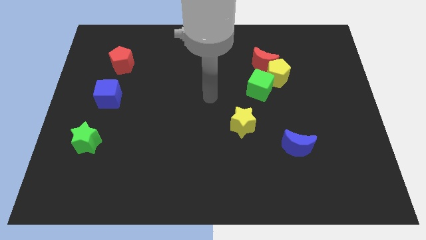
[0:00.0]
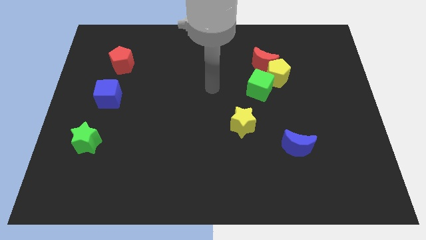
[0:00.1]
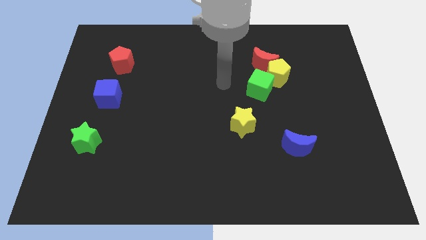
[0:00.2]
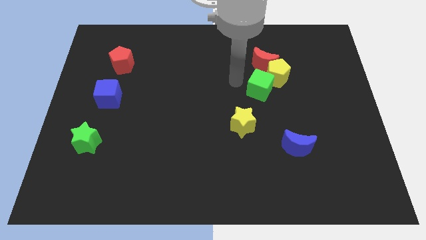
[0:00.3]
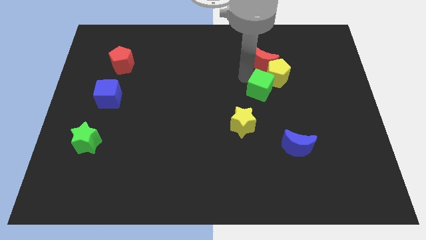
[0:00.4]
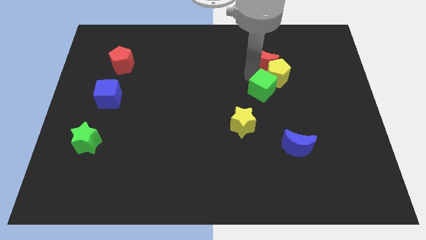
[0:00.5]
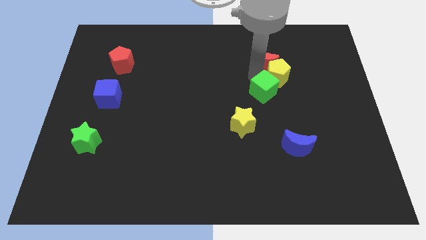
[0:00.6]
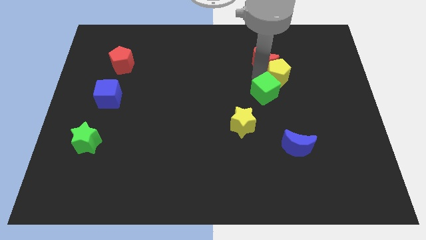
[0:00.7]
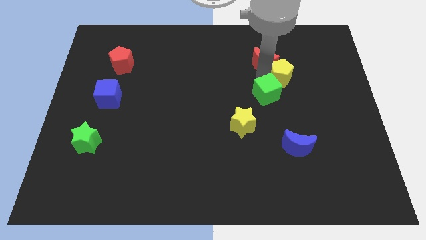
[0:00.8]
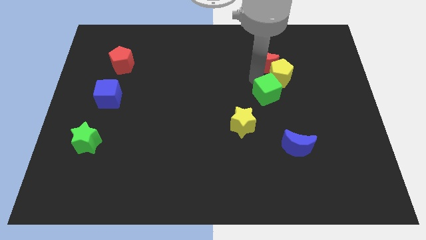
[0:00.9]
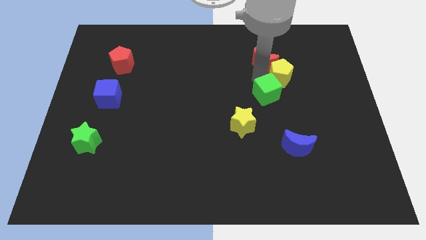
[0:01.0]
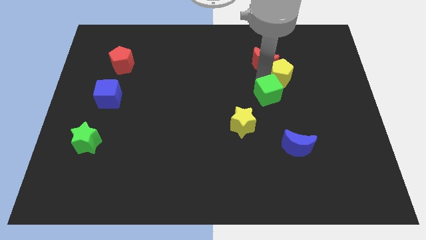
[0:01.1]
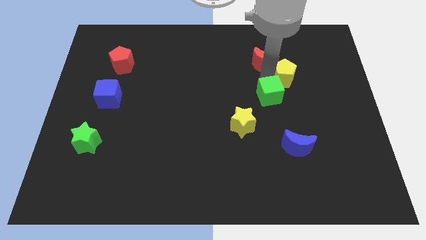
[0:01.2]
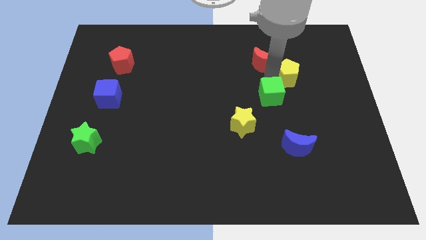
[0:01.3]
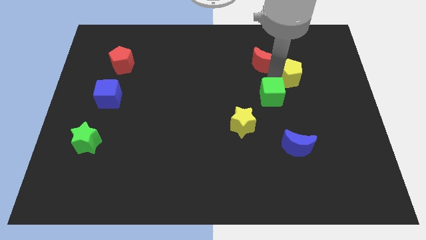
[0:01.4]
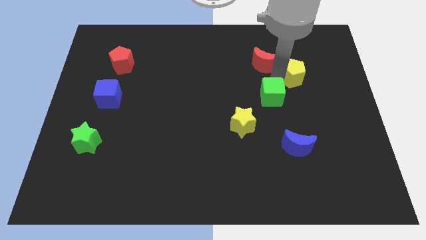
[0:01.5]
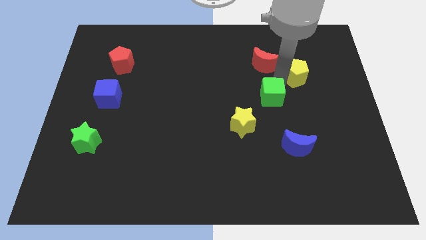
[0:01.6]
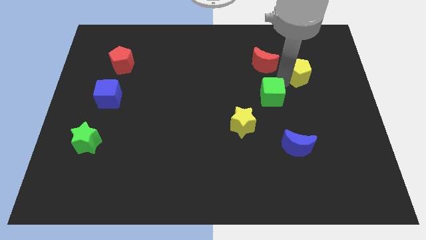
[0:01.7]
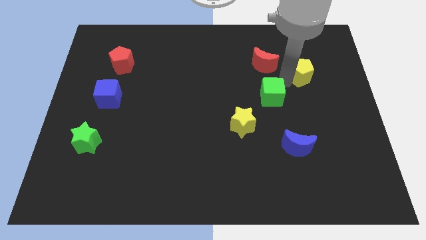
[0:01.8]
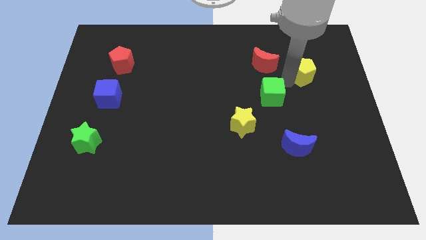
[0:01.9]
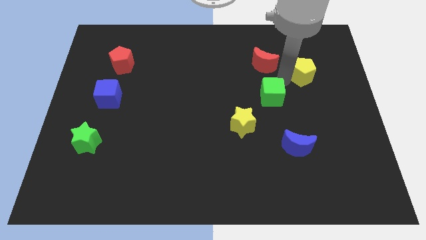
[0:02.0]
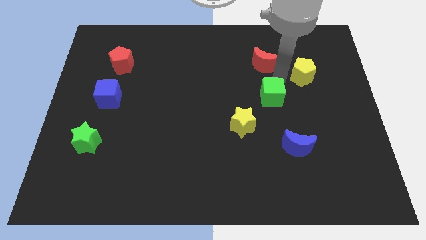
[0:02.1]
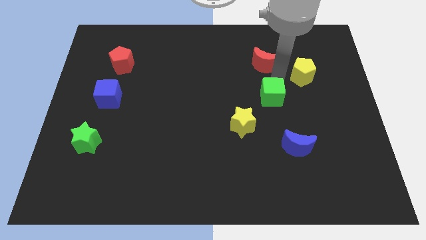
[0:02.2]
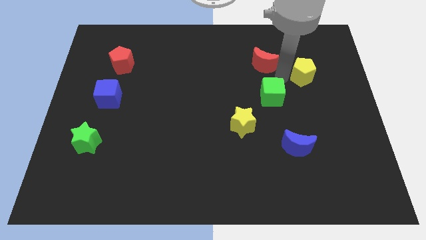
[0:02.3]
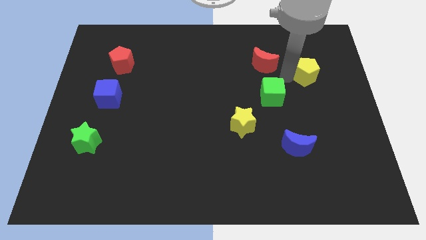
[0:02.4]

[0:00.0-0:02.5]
separate the yellow pentagon from the red moon and green cube

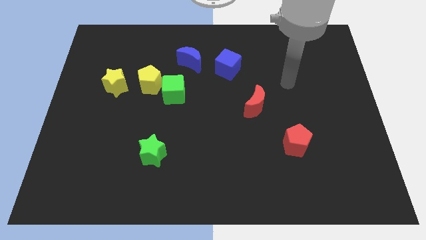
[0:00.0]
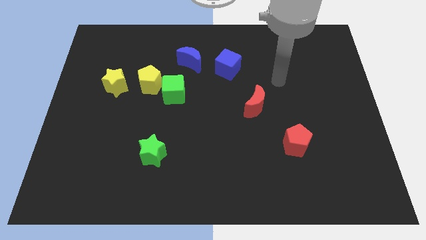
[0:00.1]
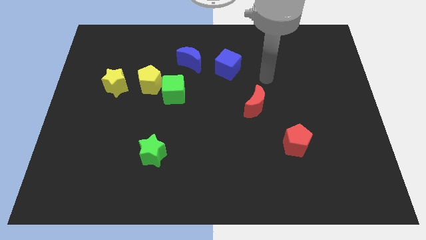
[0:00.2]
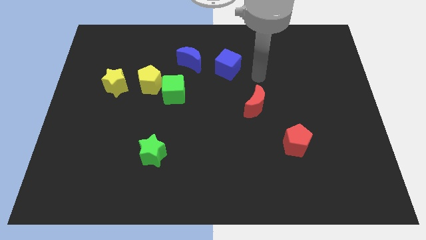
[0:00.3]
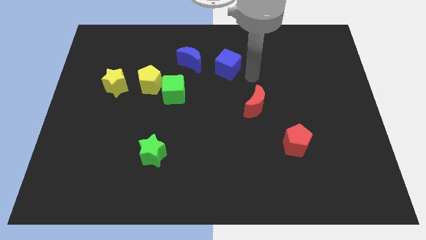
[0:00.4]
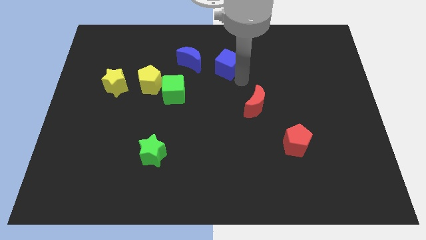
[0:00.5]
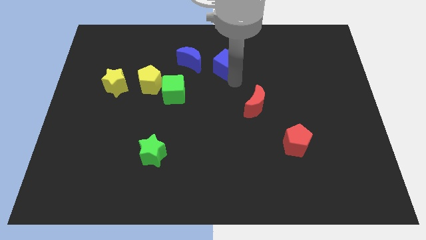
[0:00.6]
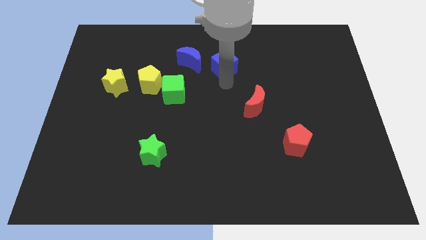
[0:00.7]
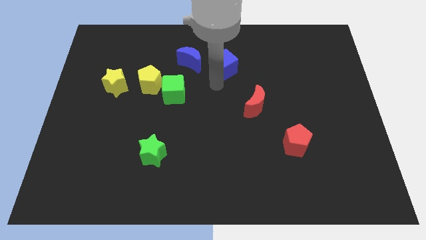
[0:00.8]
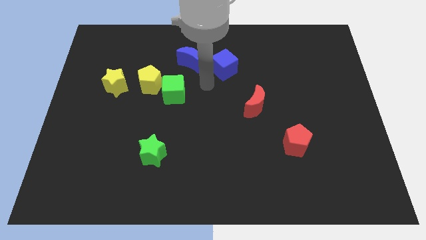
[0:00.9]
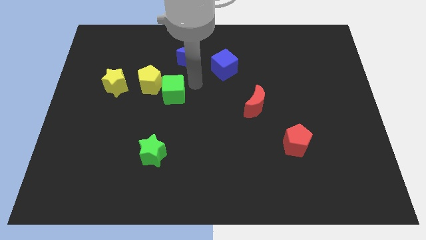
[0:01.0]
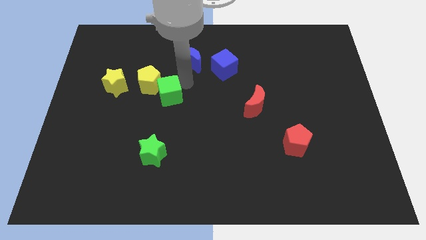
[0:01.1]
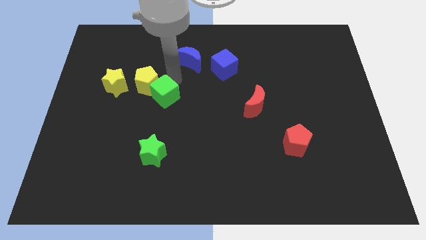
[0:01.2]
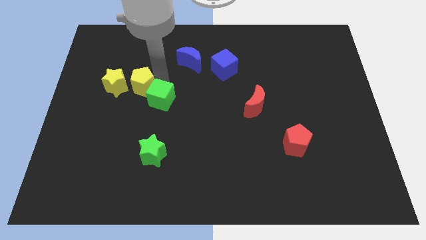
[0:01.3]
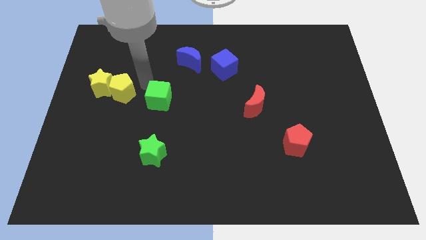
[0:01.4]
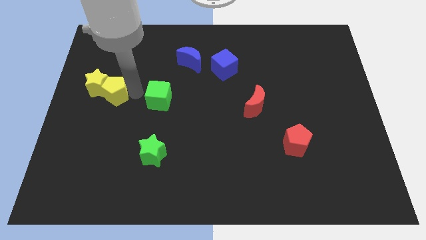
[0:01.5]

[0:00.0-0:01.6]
move the green cube away from the yellow pentagon

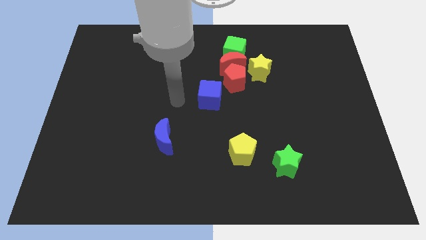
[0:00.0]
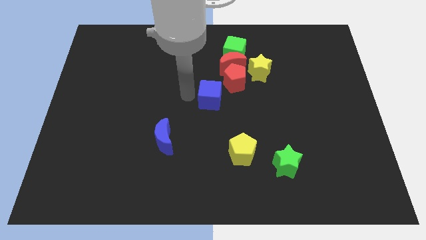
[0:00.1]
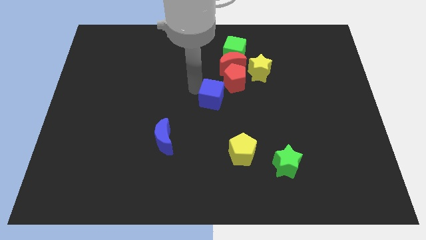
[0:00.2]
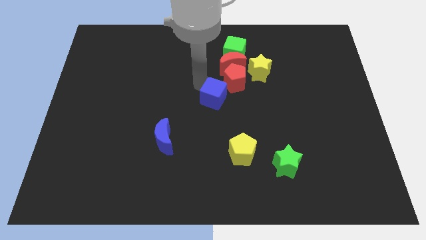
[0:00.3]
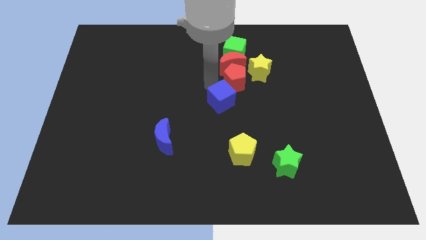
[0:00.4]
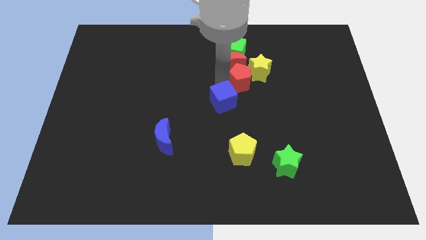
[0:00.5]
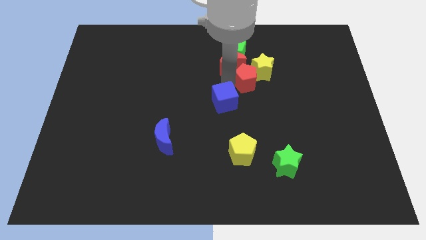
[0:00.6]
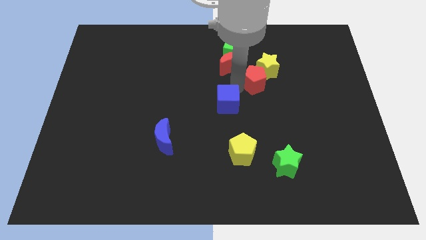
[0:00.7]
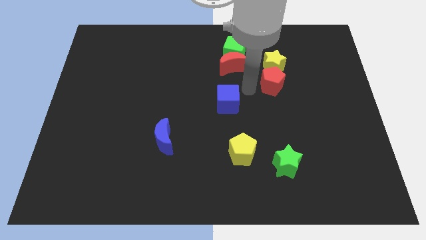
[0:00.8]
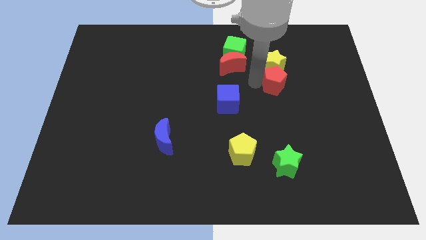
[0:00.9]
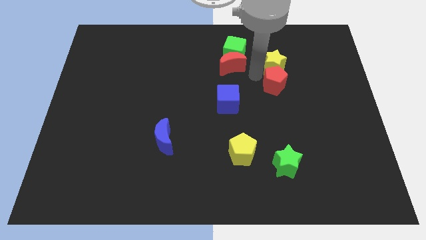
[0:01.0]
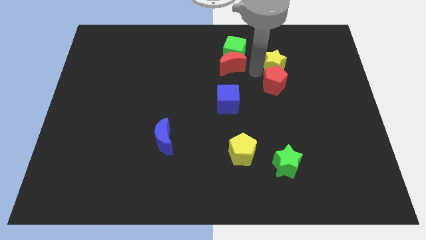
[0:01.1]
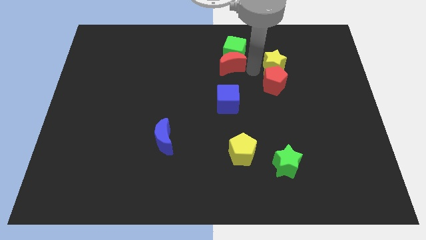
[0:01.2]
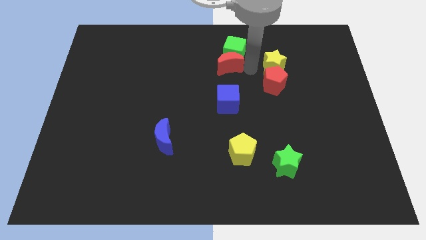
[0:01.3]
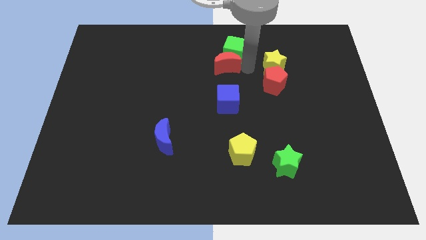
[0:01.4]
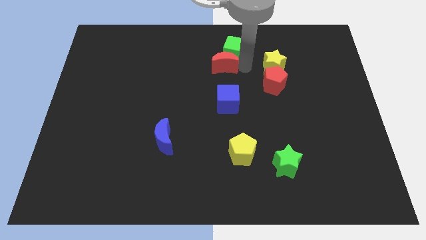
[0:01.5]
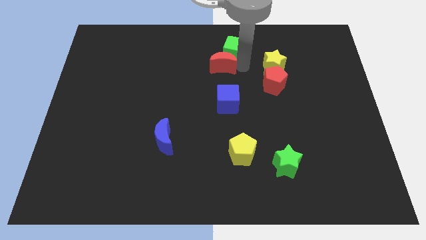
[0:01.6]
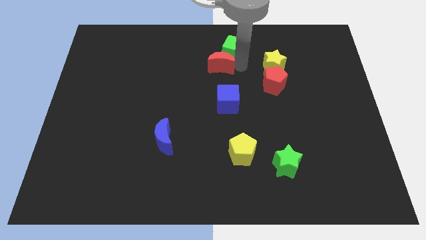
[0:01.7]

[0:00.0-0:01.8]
move the red moon away from the clump

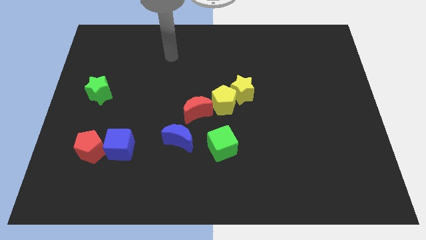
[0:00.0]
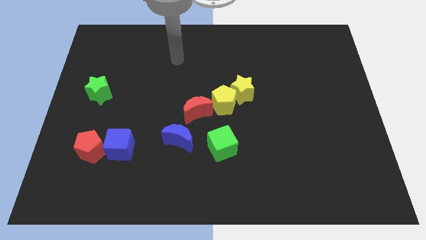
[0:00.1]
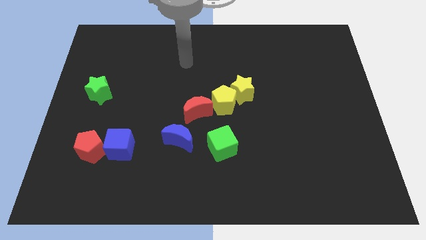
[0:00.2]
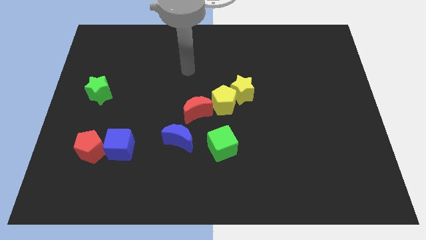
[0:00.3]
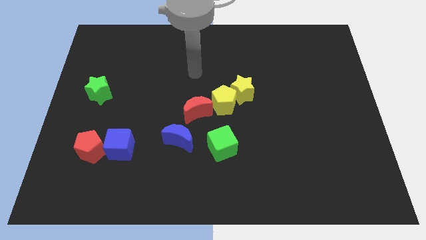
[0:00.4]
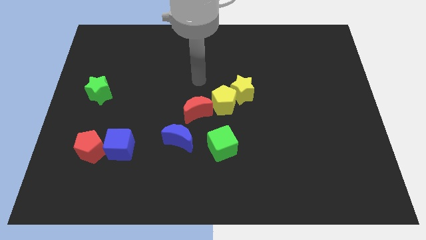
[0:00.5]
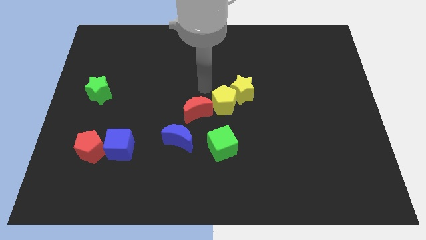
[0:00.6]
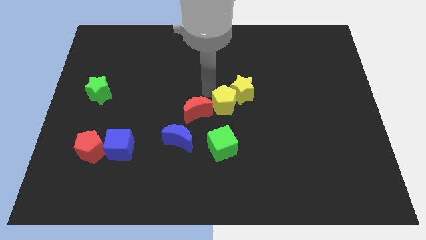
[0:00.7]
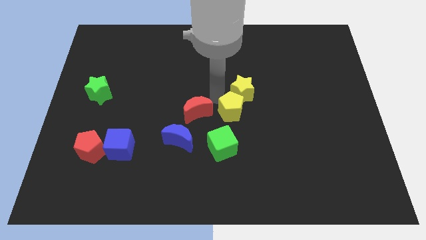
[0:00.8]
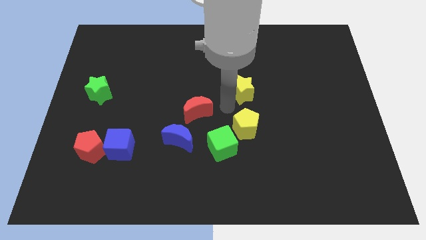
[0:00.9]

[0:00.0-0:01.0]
separate the yellow star from the yellow pentagon

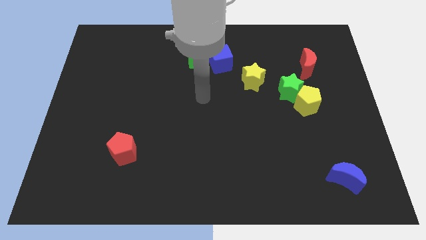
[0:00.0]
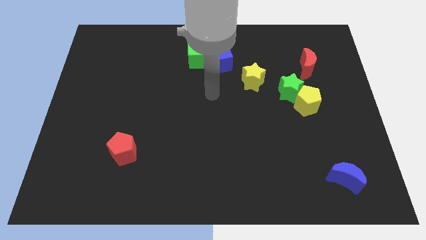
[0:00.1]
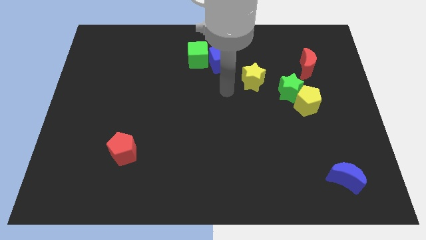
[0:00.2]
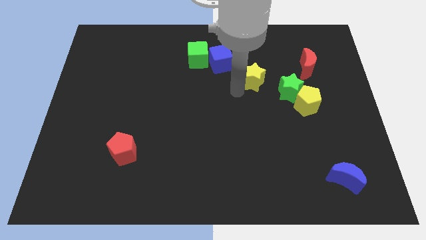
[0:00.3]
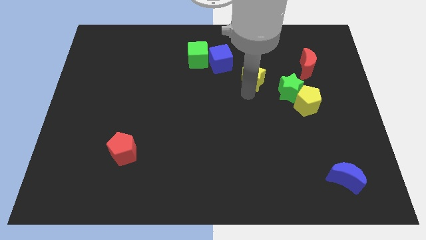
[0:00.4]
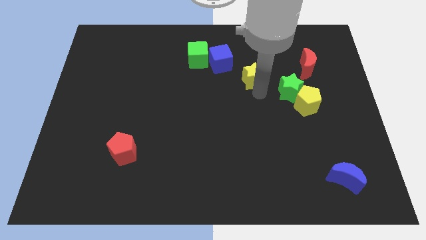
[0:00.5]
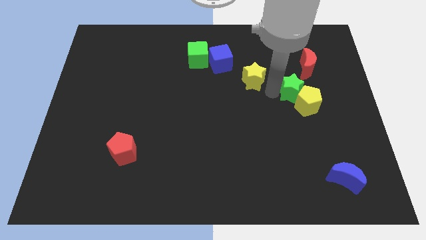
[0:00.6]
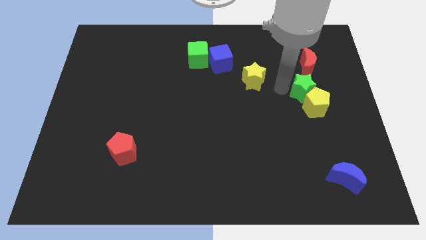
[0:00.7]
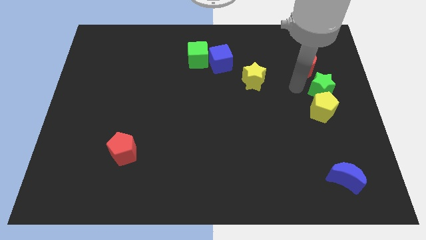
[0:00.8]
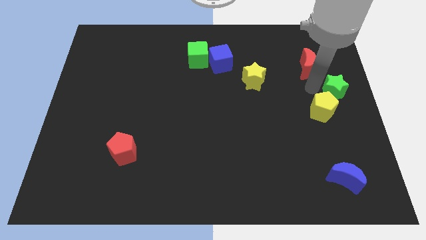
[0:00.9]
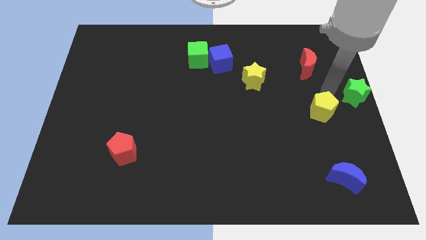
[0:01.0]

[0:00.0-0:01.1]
pull the yellow pentagon apart from the green star

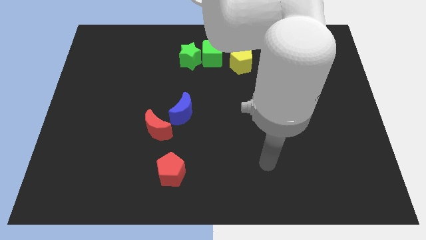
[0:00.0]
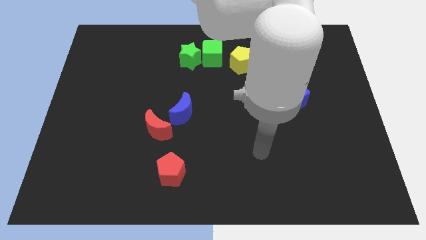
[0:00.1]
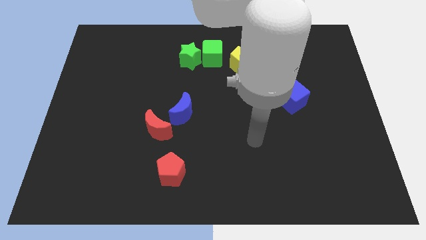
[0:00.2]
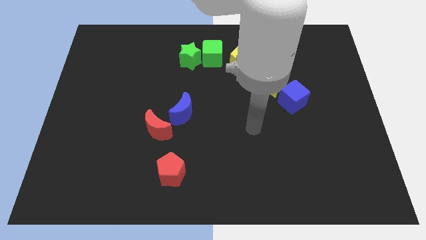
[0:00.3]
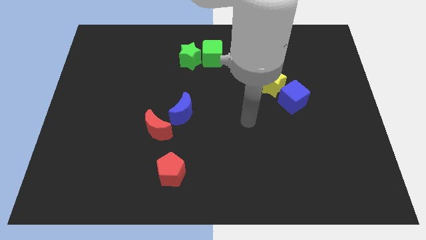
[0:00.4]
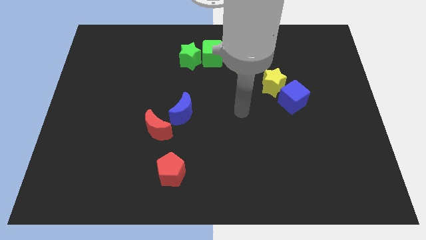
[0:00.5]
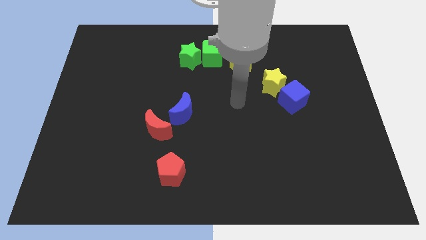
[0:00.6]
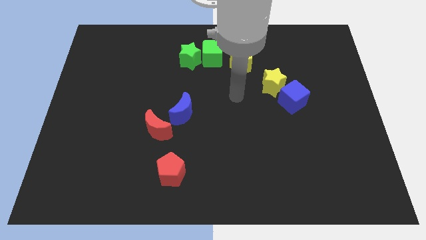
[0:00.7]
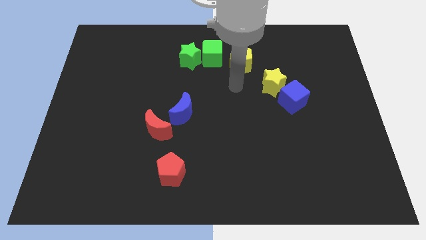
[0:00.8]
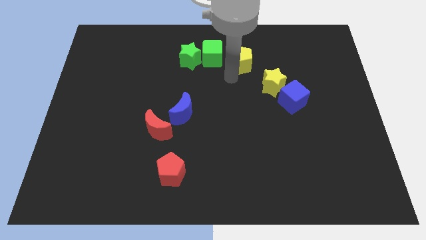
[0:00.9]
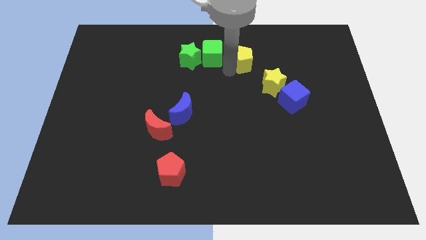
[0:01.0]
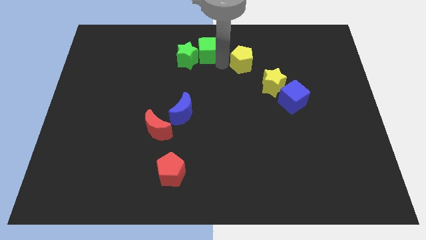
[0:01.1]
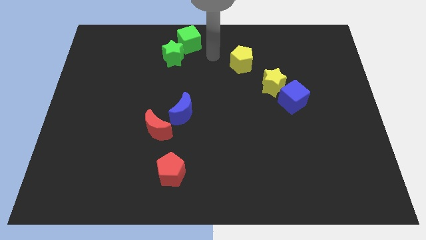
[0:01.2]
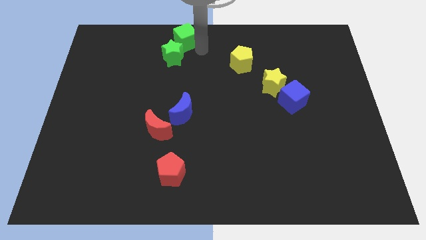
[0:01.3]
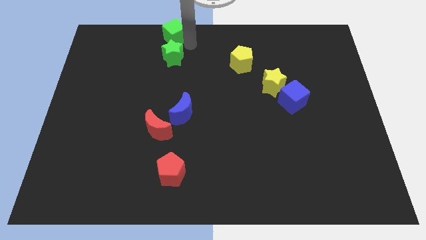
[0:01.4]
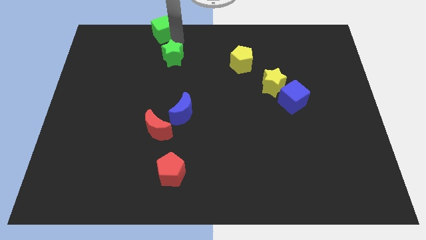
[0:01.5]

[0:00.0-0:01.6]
separate the green star from the green cube
